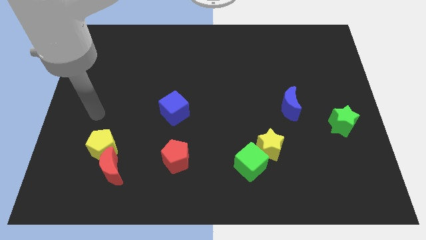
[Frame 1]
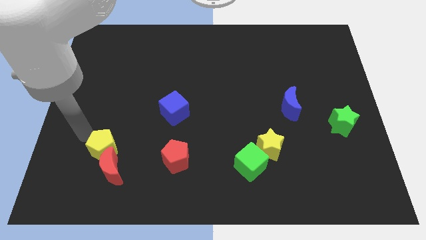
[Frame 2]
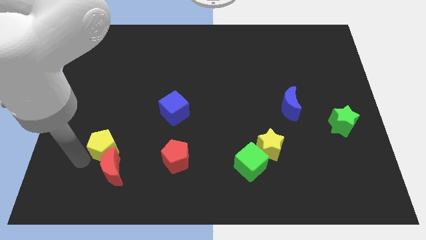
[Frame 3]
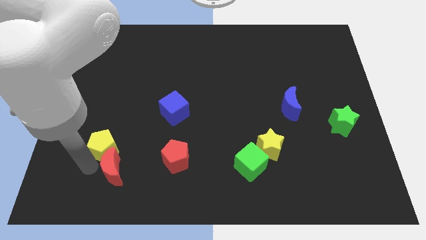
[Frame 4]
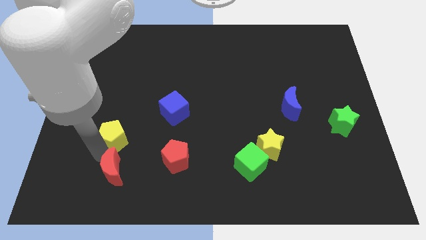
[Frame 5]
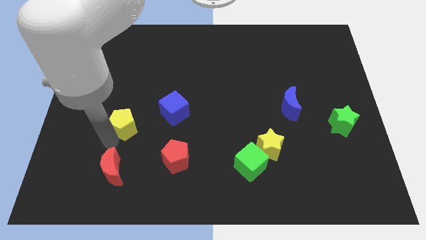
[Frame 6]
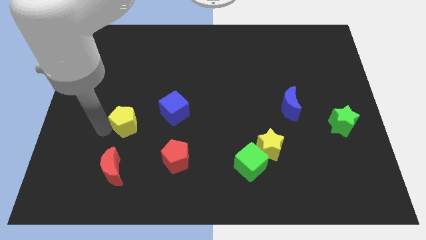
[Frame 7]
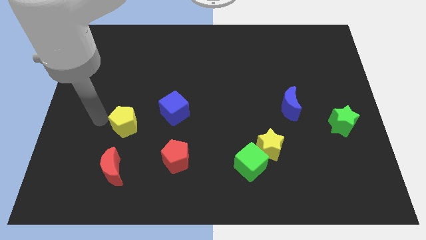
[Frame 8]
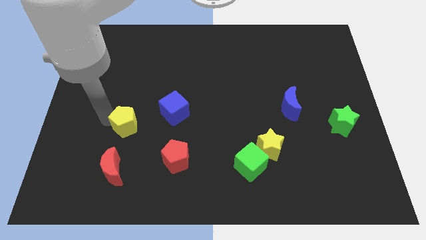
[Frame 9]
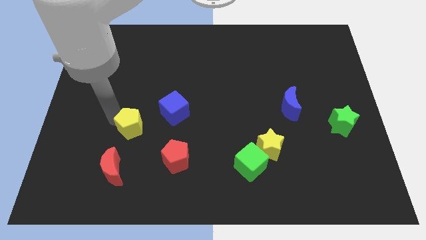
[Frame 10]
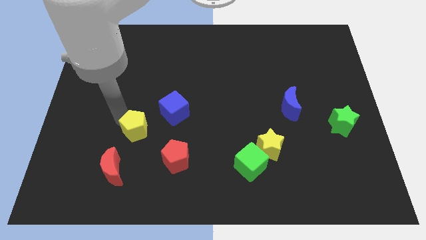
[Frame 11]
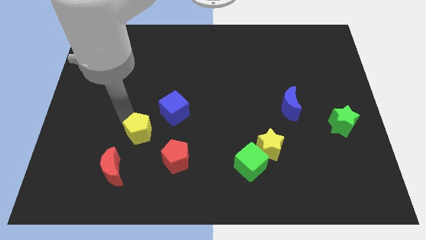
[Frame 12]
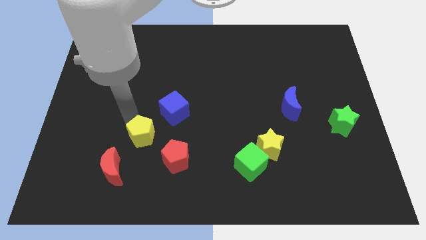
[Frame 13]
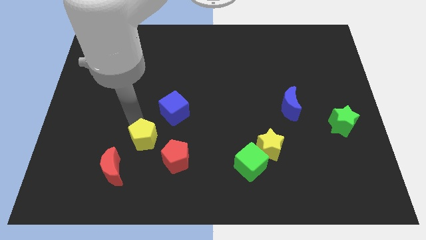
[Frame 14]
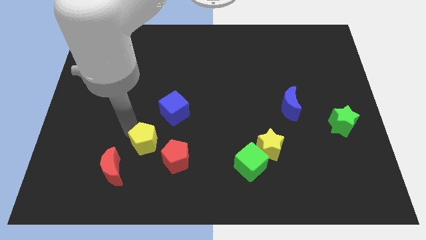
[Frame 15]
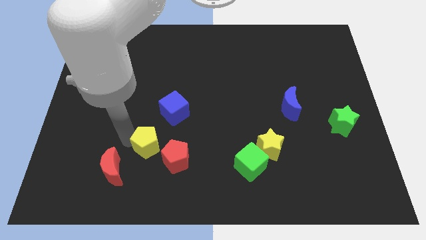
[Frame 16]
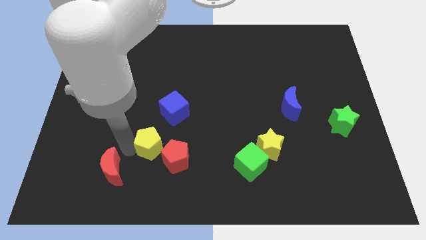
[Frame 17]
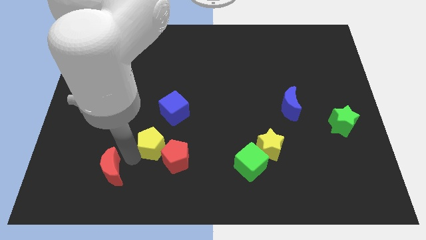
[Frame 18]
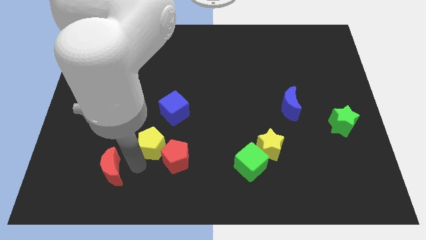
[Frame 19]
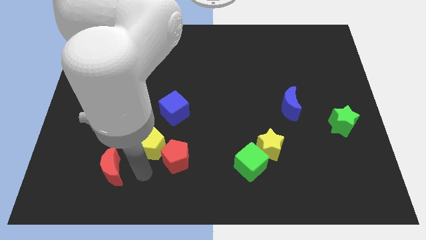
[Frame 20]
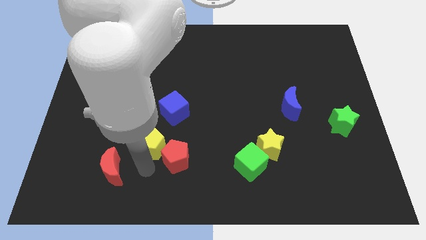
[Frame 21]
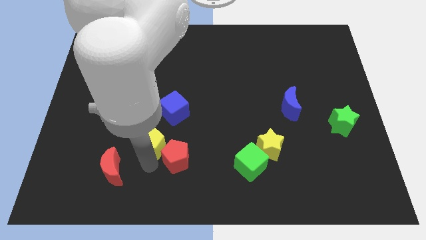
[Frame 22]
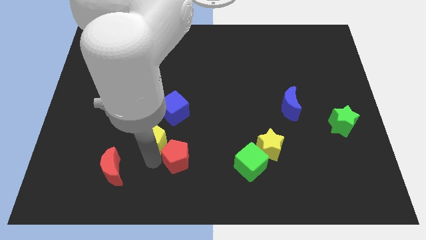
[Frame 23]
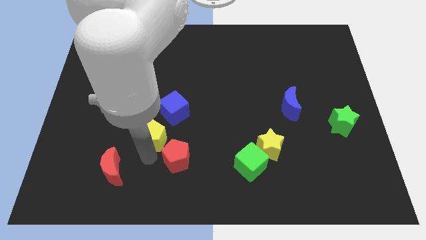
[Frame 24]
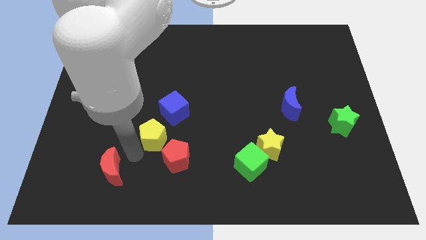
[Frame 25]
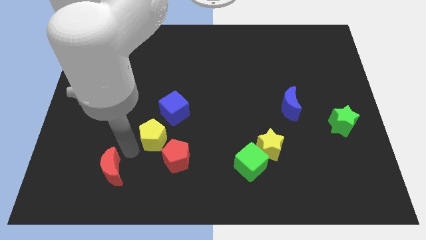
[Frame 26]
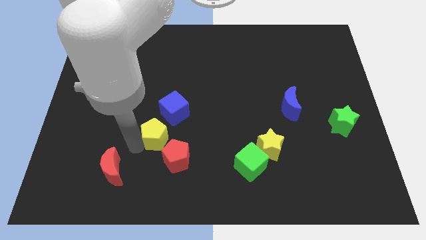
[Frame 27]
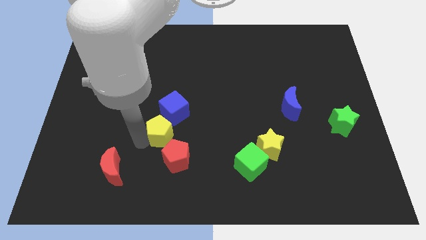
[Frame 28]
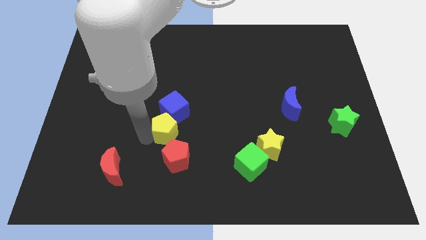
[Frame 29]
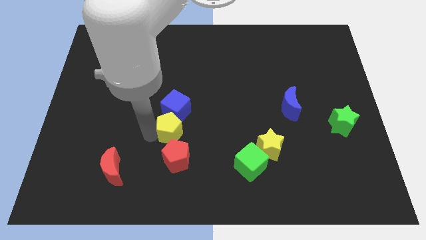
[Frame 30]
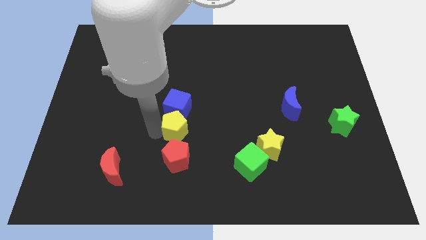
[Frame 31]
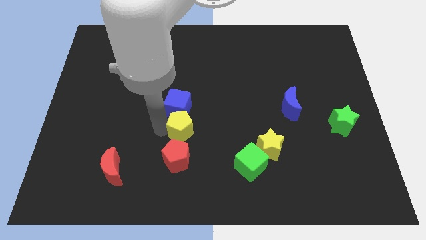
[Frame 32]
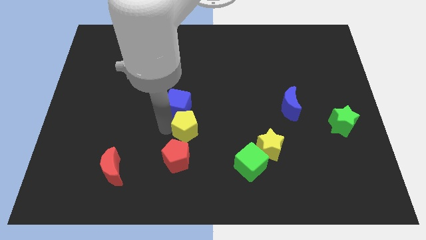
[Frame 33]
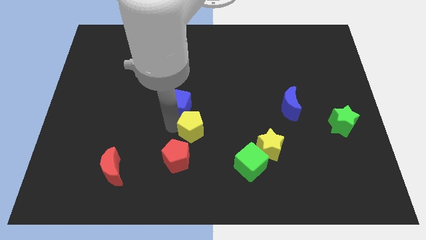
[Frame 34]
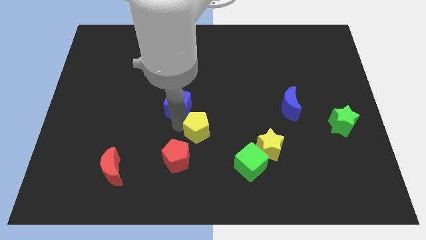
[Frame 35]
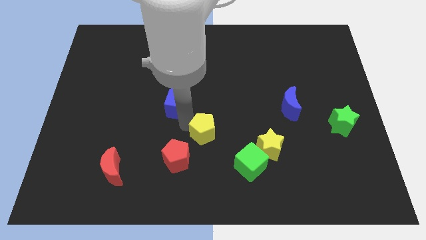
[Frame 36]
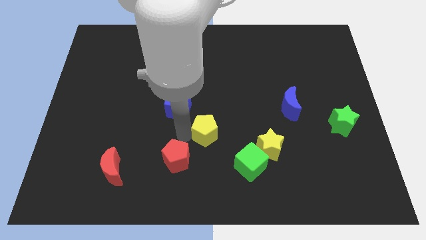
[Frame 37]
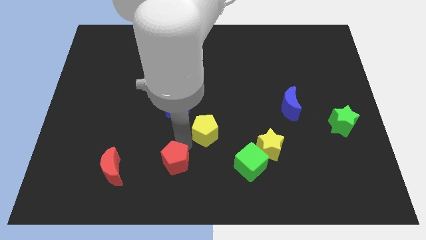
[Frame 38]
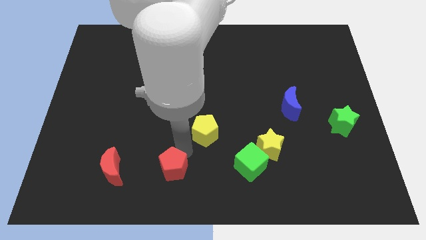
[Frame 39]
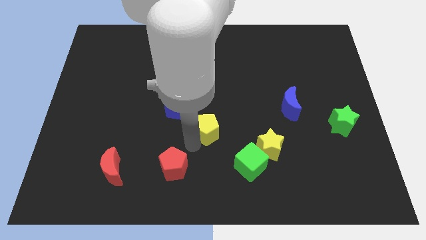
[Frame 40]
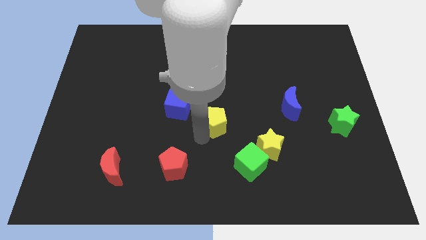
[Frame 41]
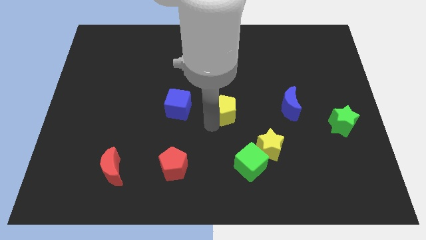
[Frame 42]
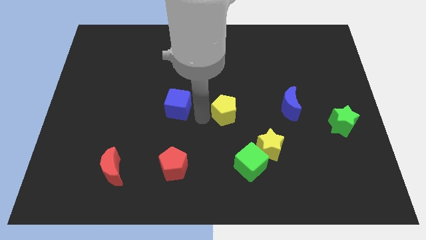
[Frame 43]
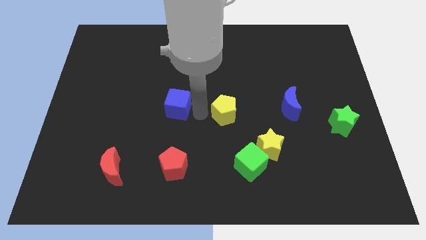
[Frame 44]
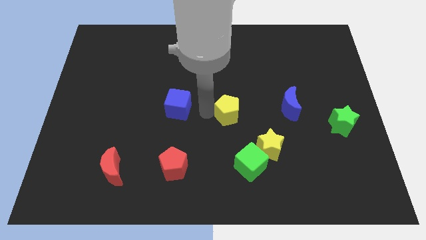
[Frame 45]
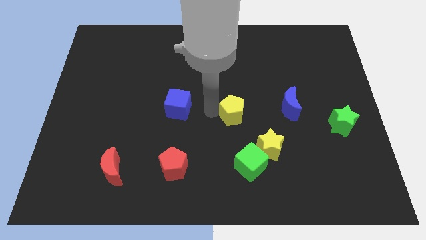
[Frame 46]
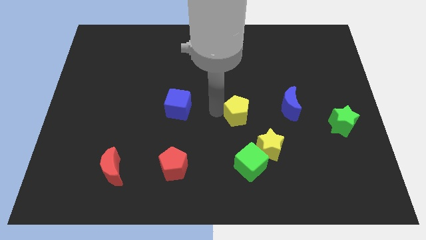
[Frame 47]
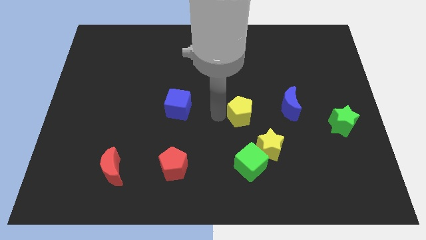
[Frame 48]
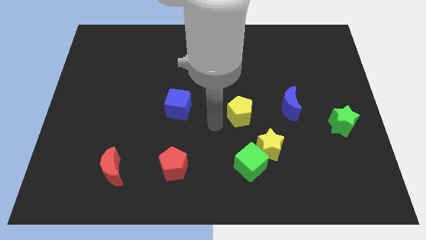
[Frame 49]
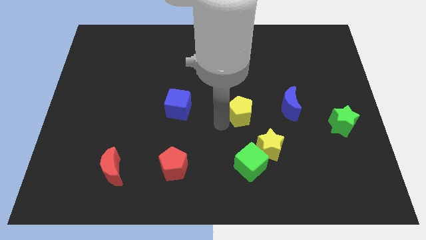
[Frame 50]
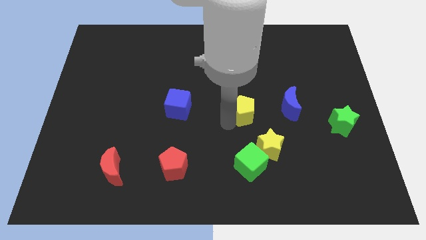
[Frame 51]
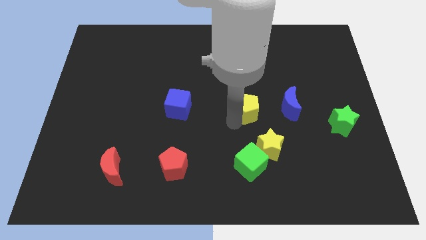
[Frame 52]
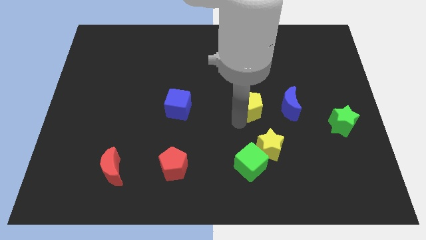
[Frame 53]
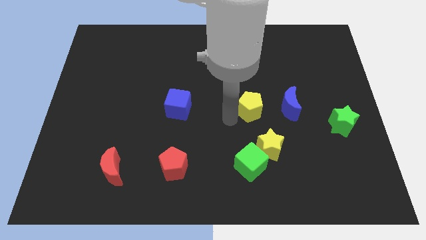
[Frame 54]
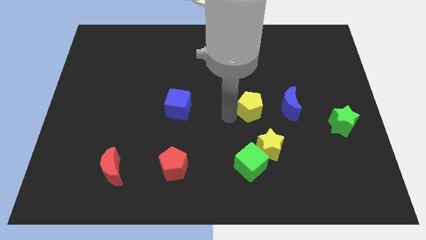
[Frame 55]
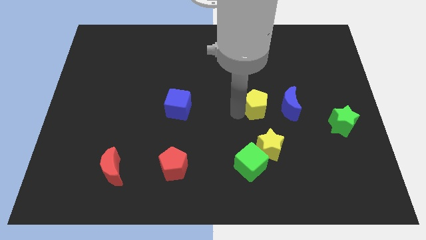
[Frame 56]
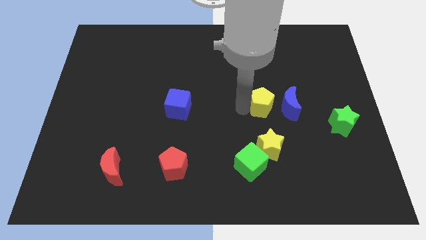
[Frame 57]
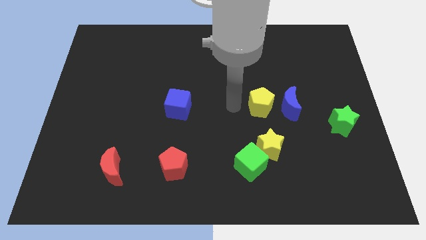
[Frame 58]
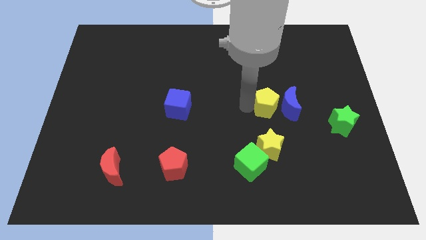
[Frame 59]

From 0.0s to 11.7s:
push the yellow pentagon next to the blue moon

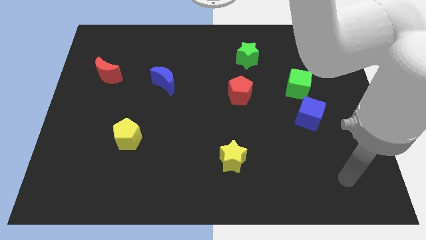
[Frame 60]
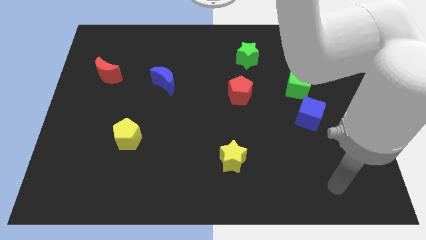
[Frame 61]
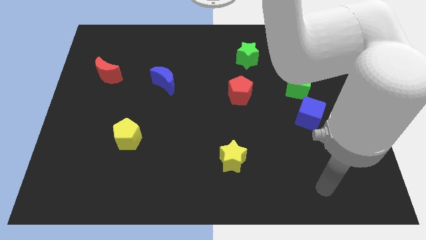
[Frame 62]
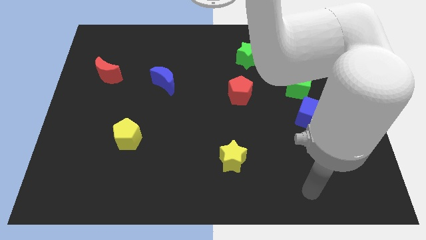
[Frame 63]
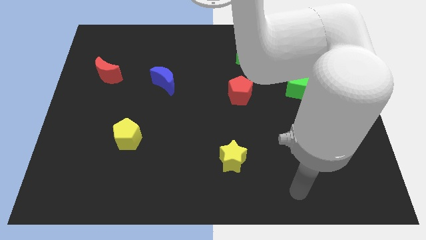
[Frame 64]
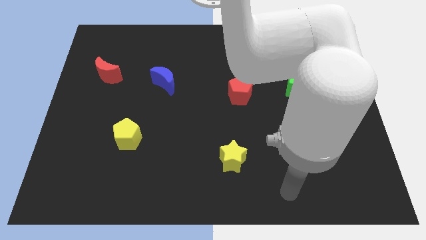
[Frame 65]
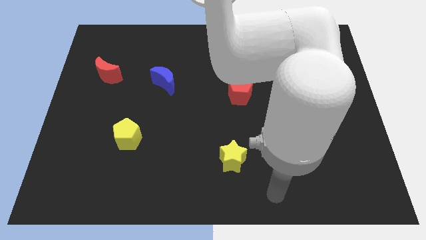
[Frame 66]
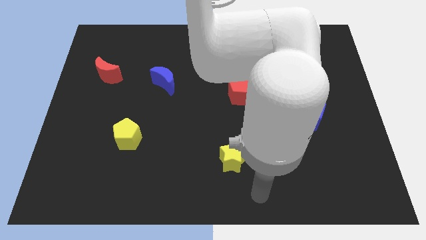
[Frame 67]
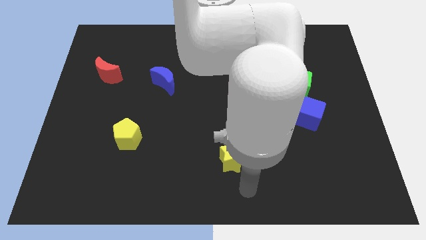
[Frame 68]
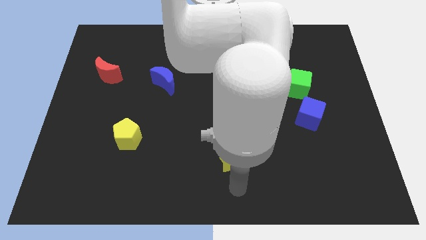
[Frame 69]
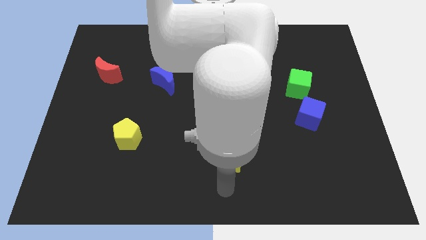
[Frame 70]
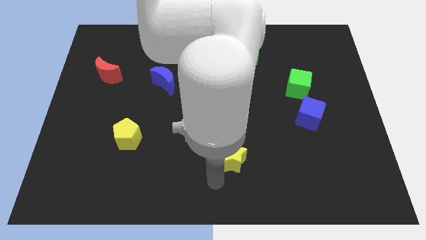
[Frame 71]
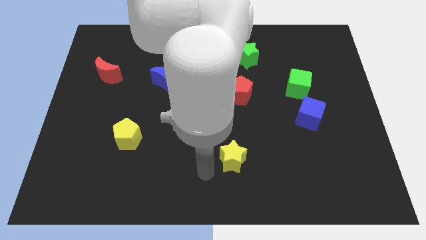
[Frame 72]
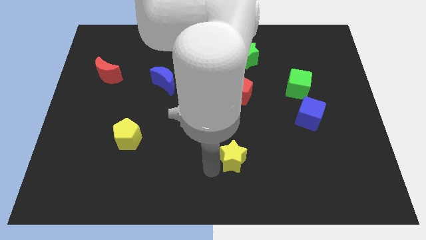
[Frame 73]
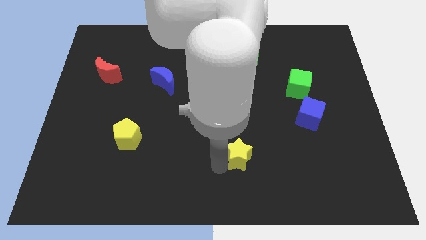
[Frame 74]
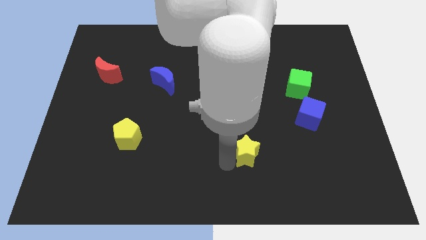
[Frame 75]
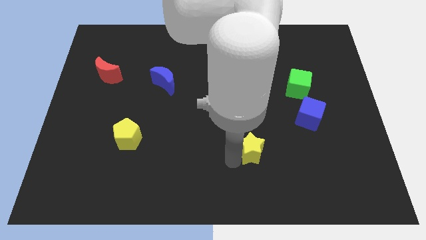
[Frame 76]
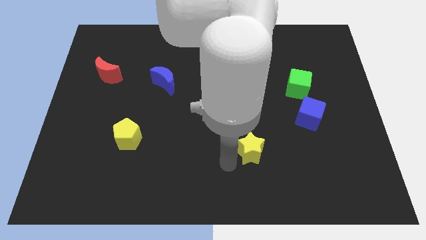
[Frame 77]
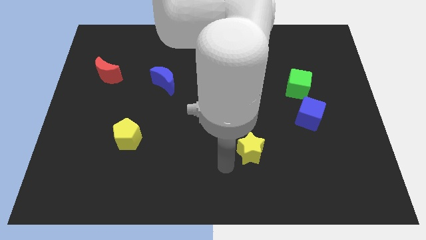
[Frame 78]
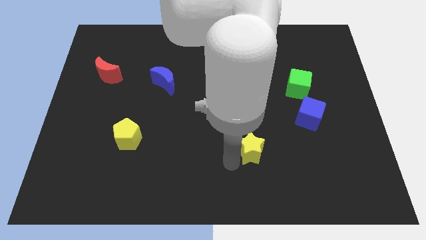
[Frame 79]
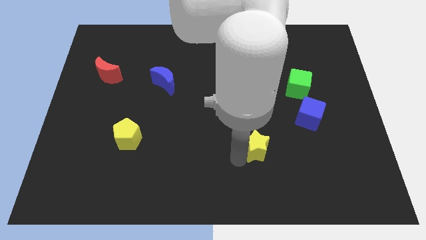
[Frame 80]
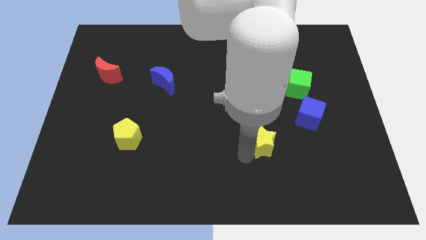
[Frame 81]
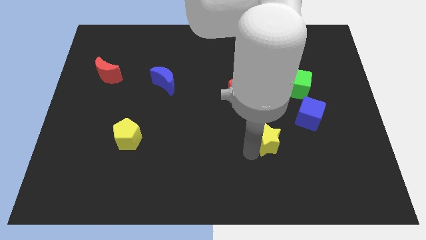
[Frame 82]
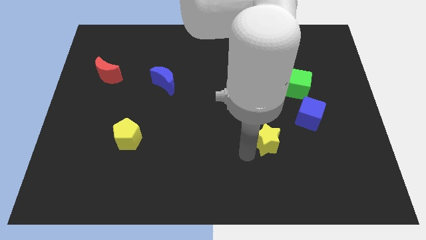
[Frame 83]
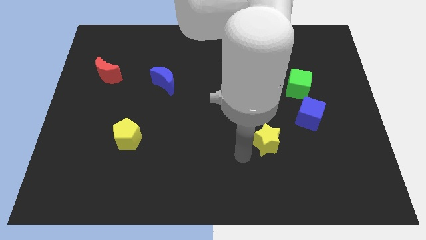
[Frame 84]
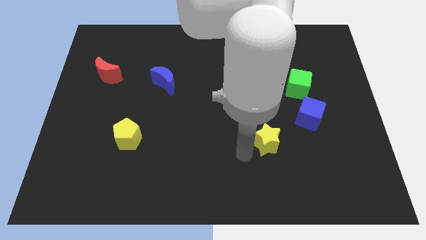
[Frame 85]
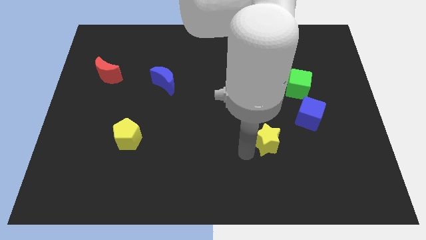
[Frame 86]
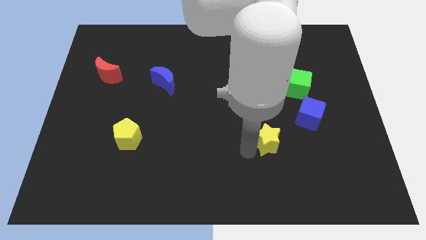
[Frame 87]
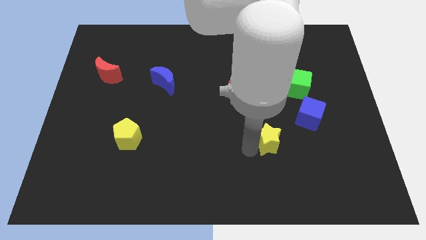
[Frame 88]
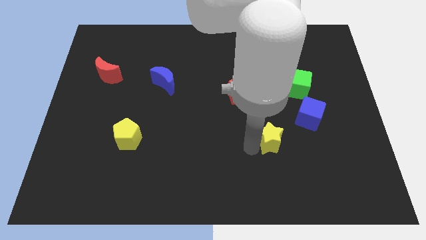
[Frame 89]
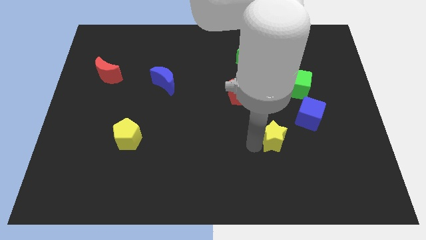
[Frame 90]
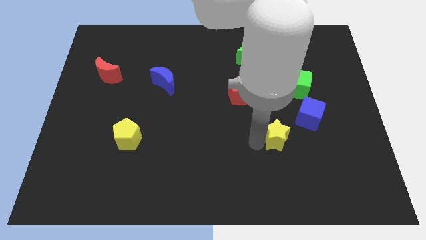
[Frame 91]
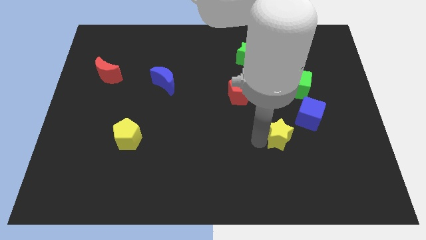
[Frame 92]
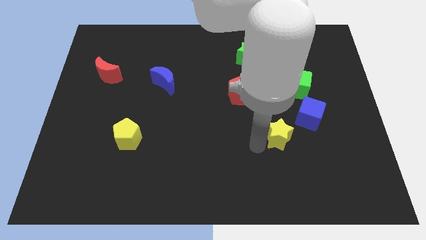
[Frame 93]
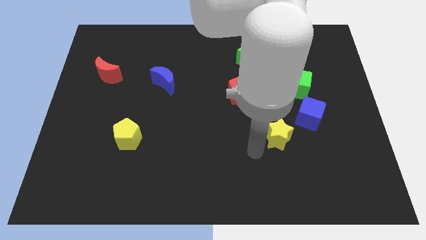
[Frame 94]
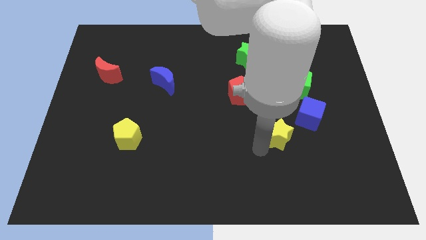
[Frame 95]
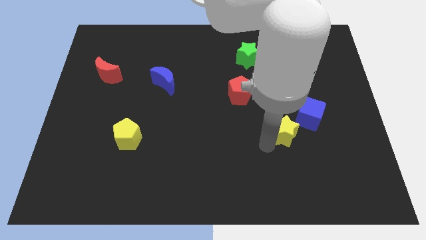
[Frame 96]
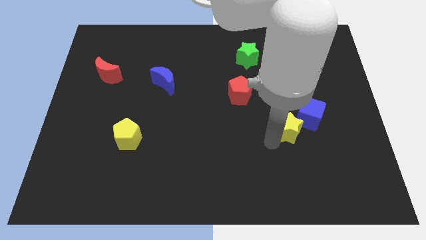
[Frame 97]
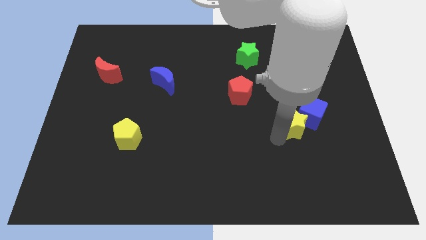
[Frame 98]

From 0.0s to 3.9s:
move the yellow star towards the blue cube
